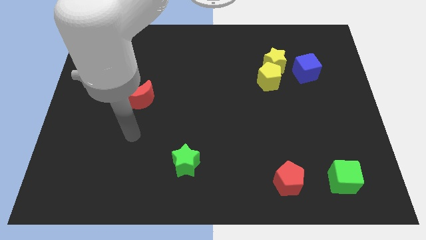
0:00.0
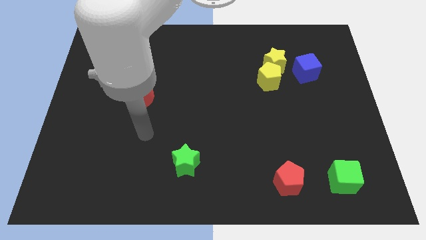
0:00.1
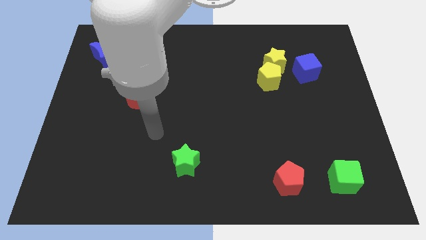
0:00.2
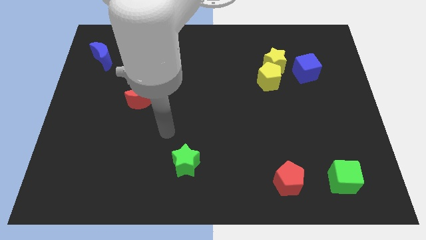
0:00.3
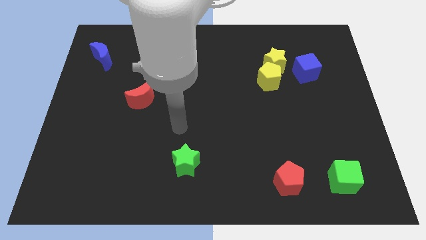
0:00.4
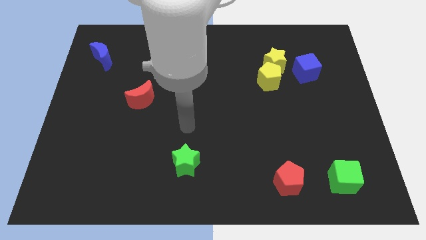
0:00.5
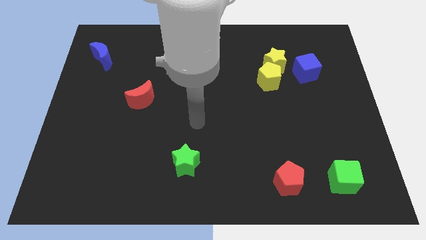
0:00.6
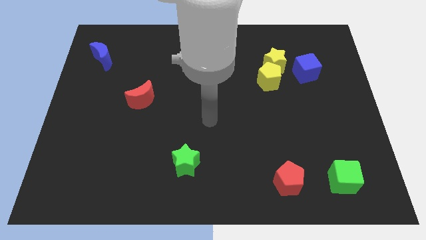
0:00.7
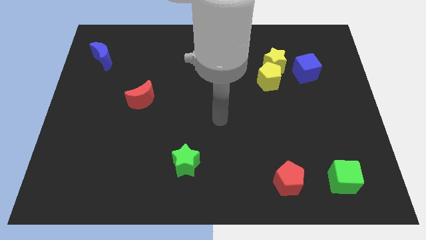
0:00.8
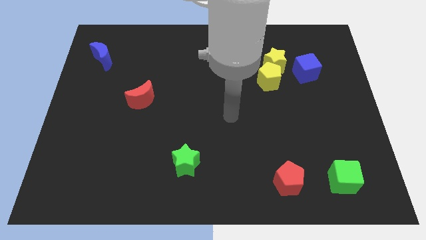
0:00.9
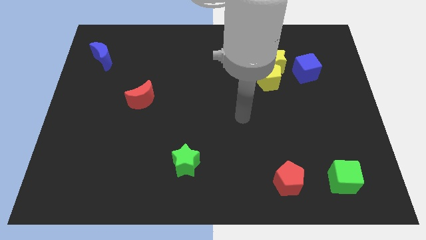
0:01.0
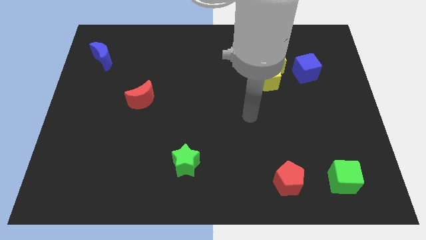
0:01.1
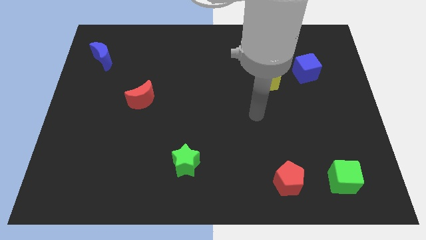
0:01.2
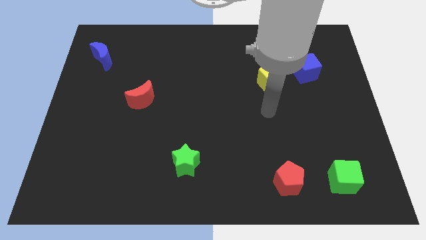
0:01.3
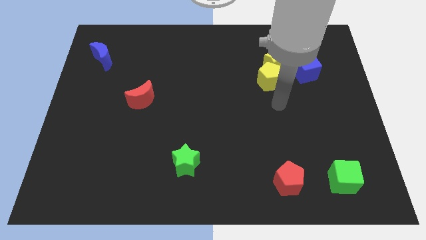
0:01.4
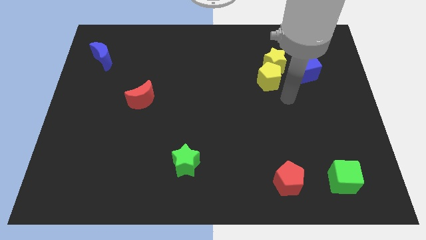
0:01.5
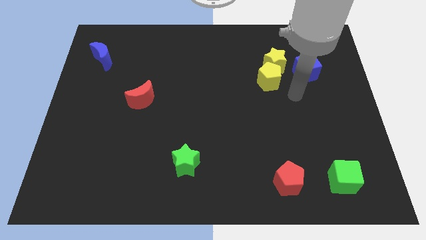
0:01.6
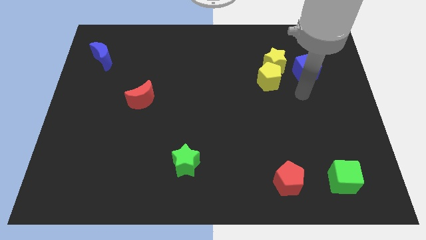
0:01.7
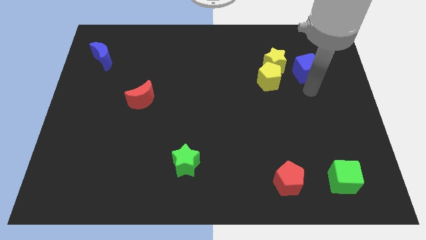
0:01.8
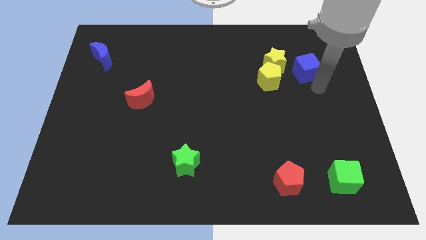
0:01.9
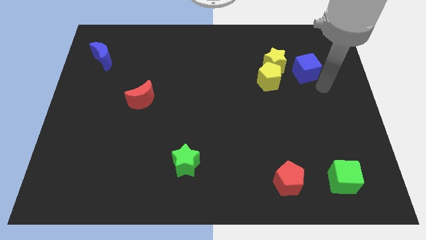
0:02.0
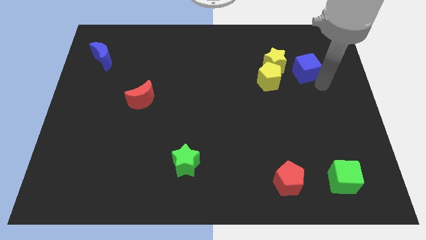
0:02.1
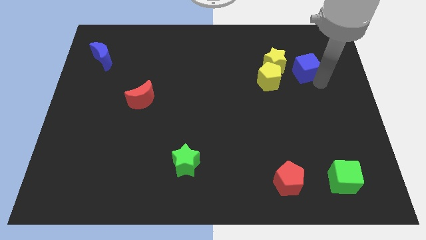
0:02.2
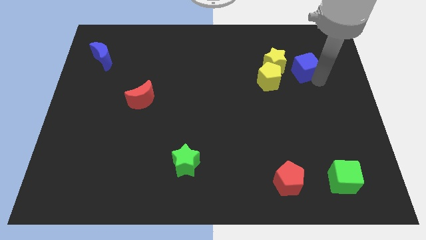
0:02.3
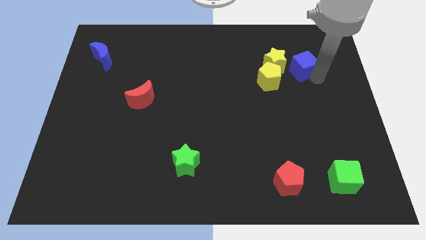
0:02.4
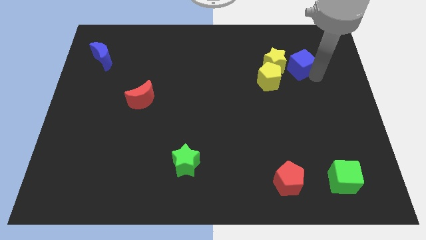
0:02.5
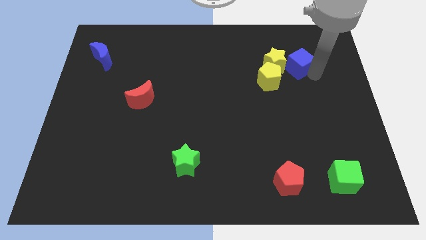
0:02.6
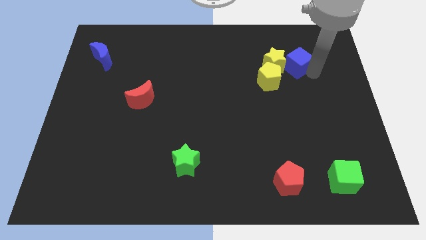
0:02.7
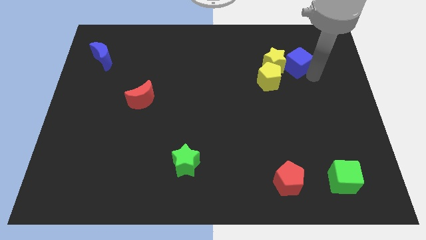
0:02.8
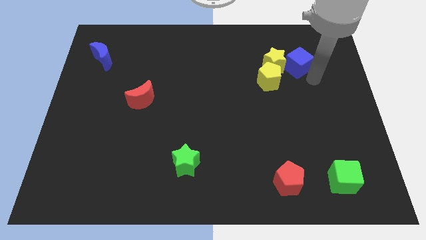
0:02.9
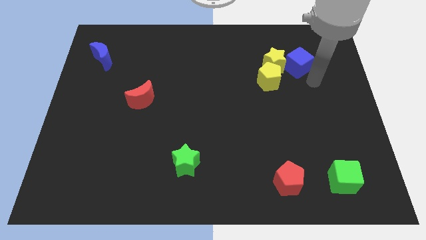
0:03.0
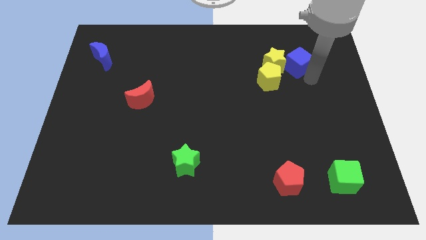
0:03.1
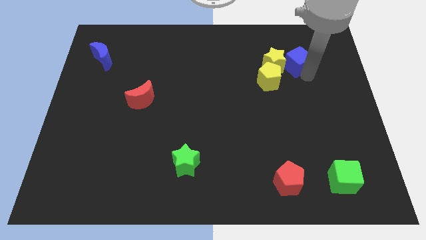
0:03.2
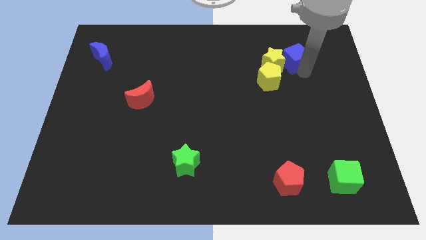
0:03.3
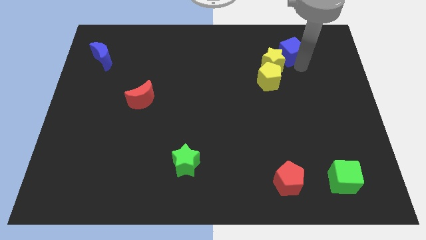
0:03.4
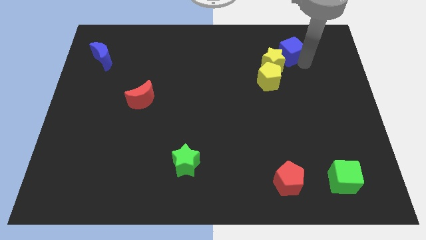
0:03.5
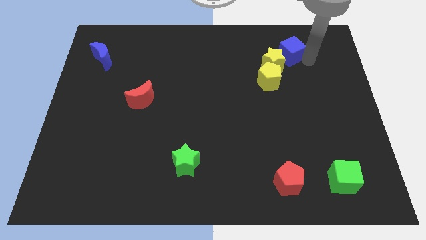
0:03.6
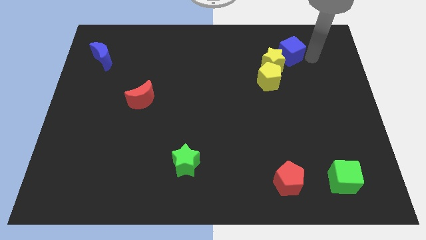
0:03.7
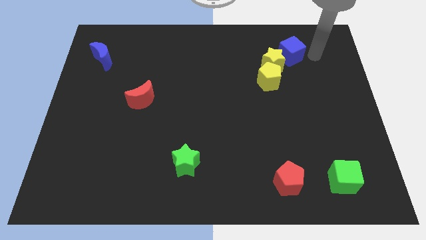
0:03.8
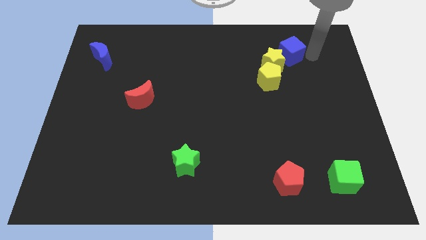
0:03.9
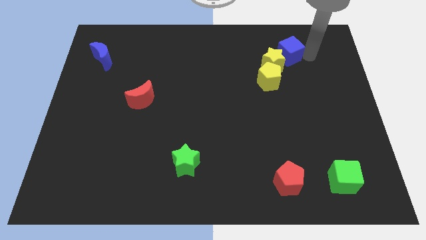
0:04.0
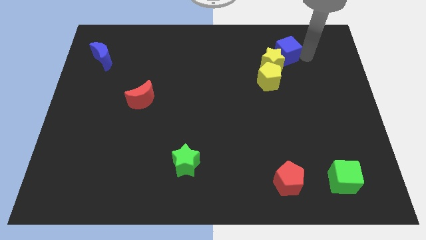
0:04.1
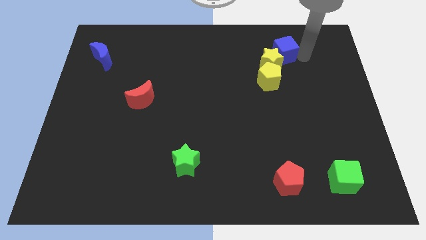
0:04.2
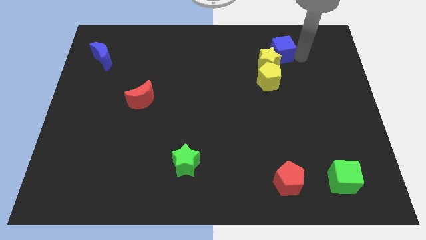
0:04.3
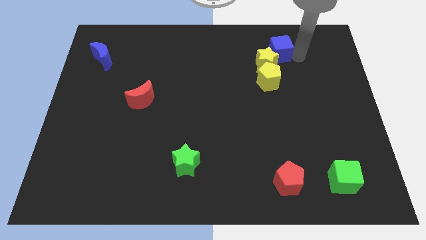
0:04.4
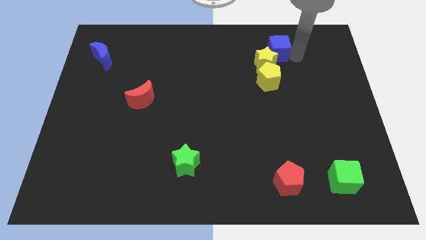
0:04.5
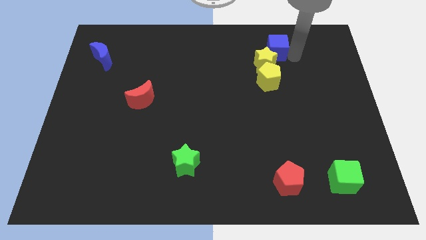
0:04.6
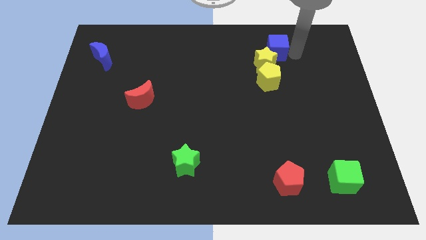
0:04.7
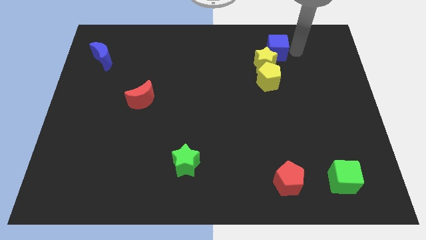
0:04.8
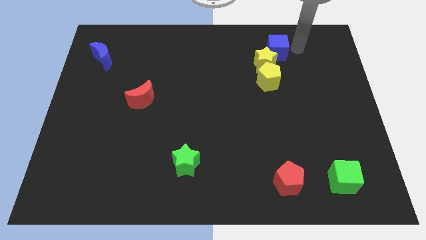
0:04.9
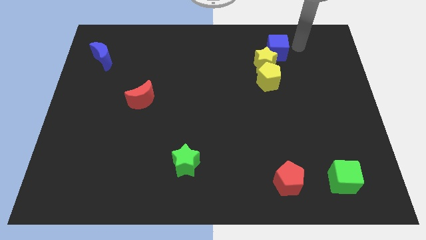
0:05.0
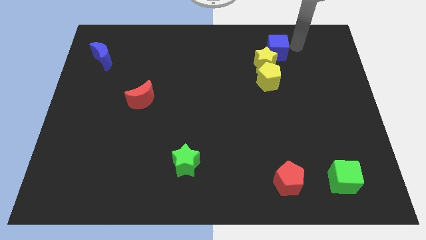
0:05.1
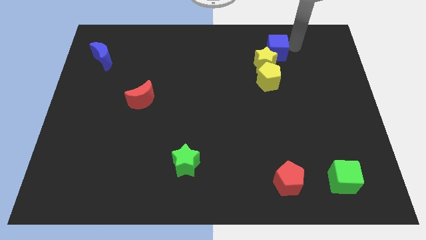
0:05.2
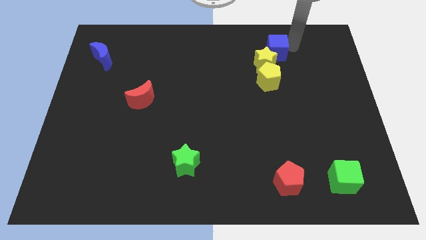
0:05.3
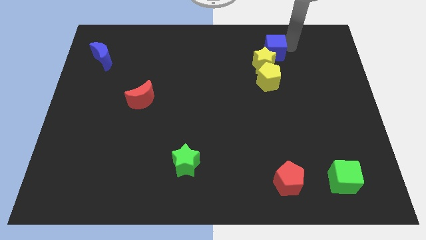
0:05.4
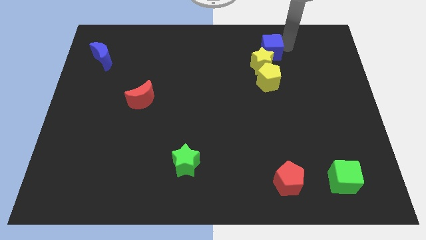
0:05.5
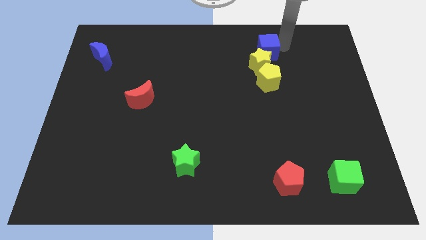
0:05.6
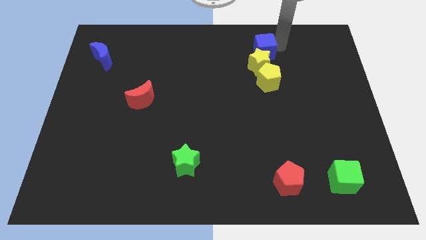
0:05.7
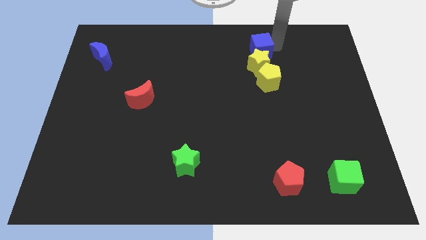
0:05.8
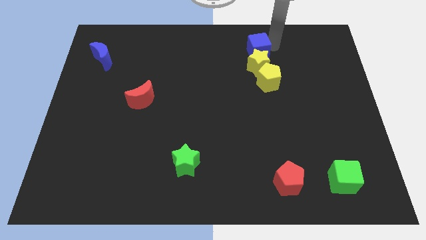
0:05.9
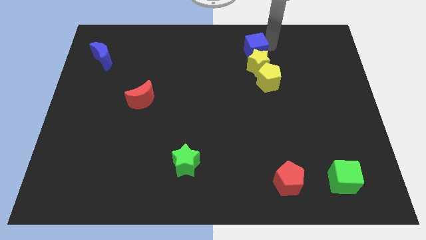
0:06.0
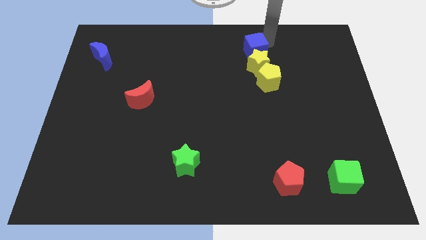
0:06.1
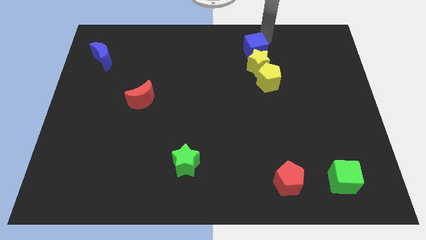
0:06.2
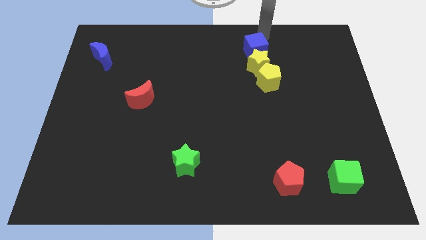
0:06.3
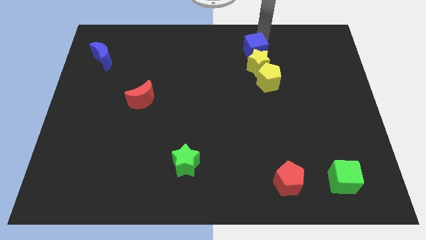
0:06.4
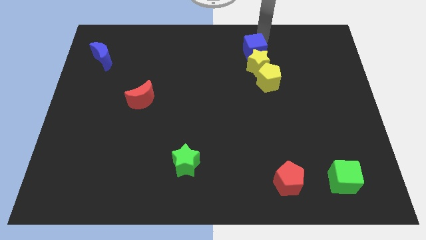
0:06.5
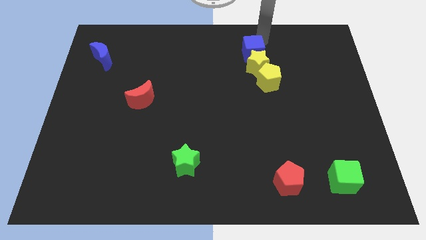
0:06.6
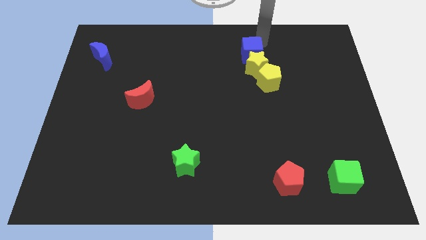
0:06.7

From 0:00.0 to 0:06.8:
push the blue cube to the top left of the yellow pentagon

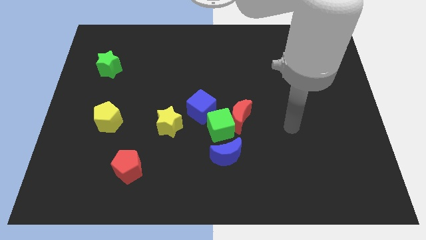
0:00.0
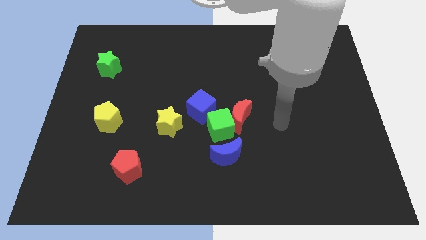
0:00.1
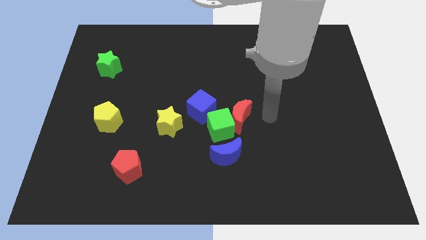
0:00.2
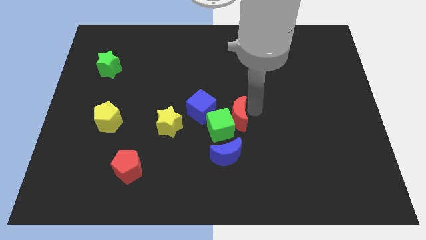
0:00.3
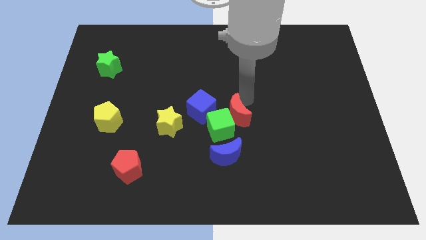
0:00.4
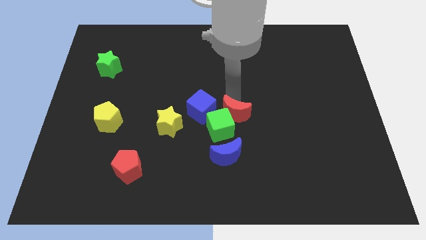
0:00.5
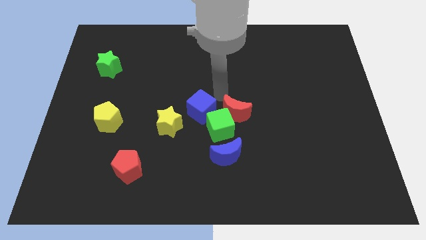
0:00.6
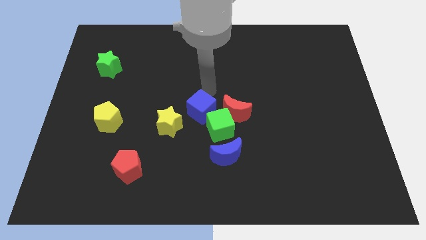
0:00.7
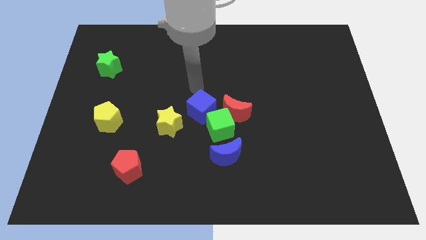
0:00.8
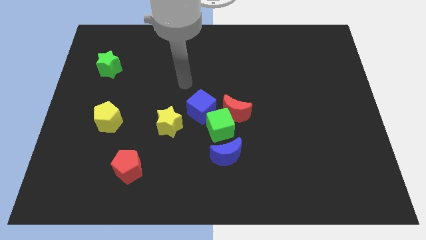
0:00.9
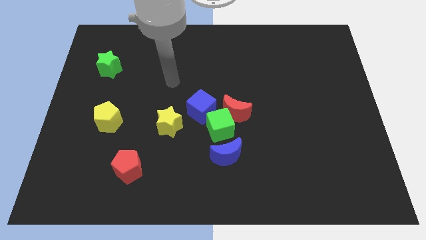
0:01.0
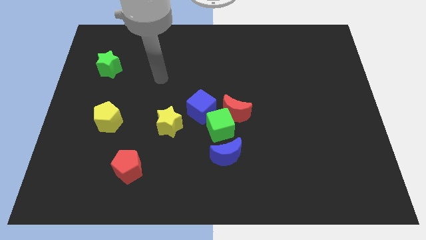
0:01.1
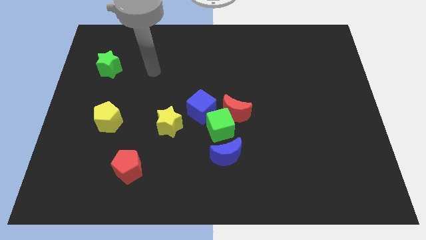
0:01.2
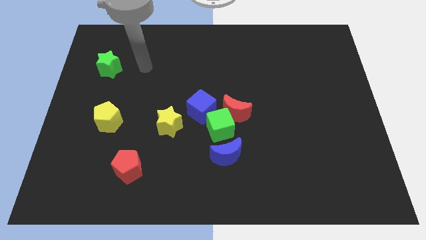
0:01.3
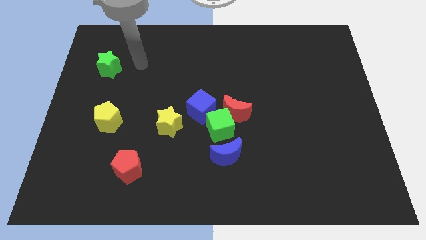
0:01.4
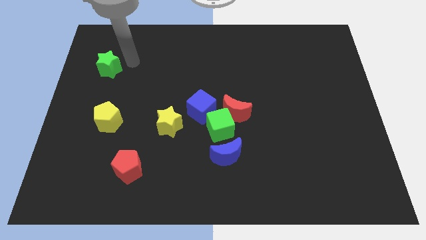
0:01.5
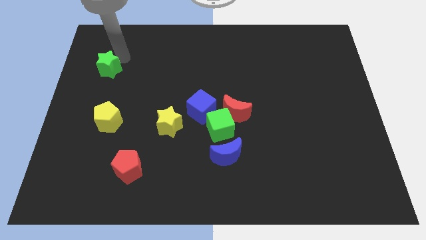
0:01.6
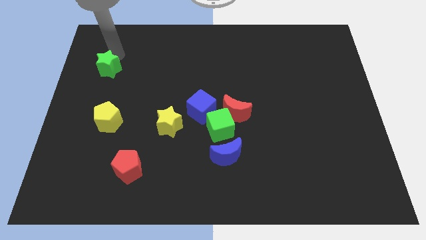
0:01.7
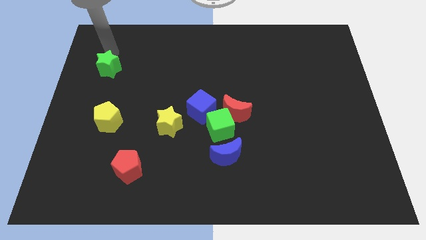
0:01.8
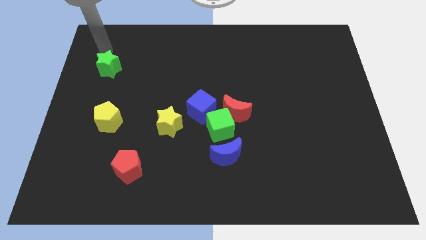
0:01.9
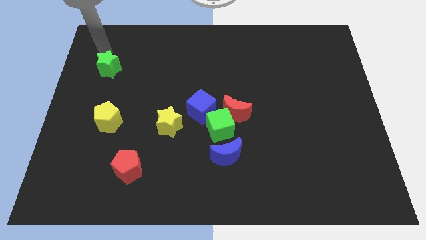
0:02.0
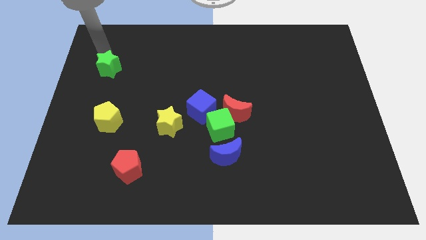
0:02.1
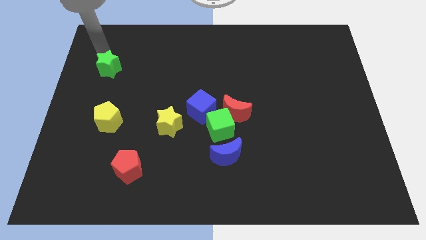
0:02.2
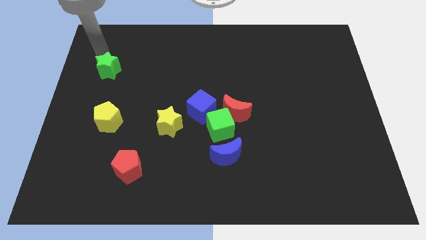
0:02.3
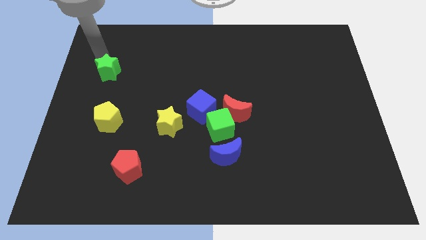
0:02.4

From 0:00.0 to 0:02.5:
move the green star above the yellow pentagon
